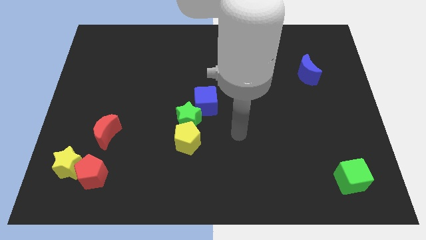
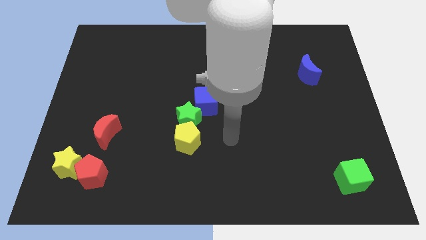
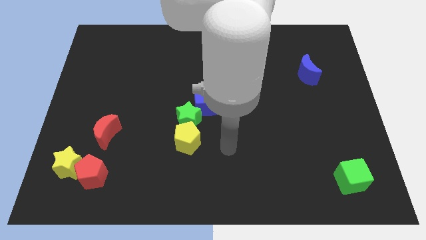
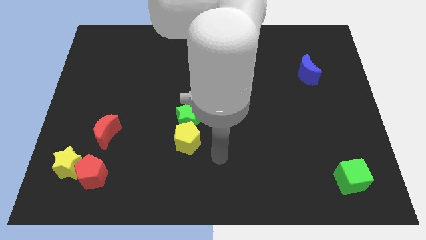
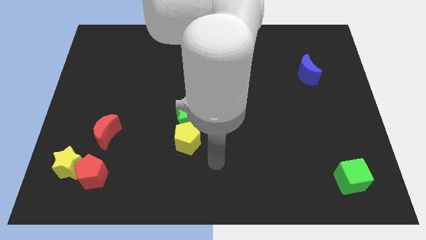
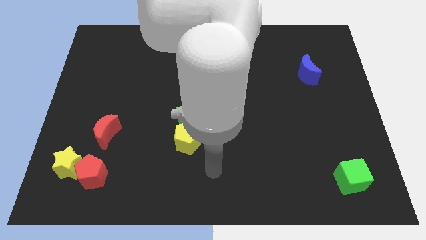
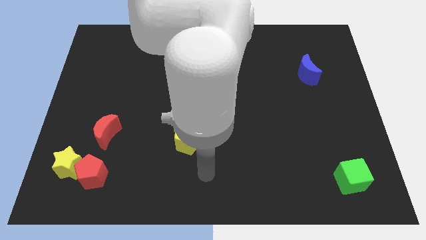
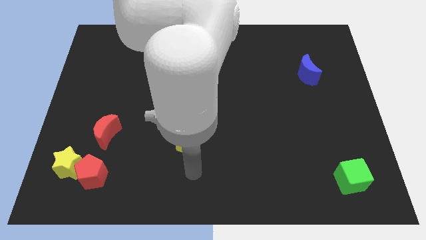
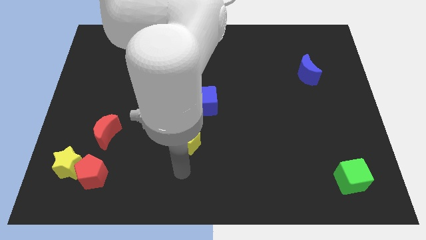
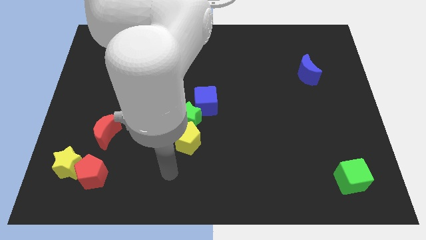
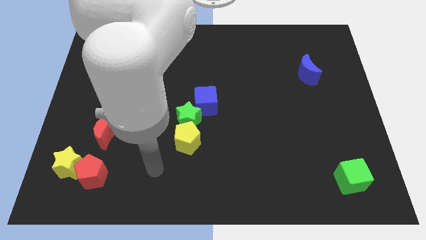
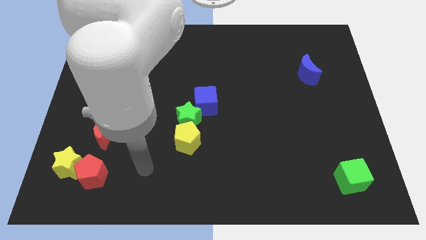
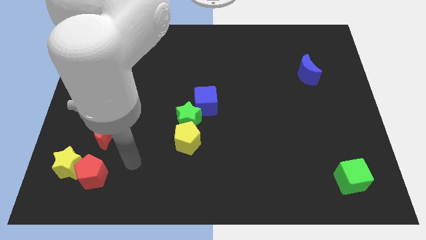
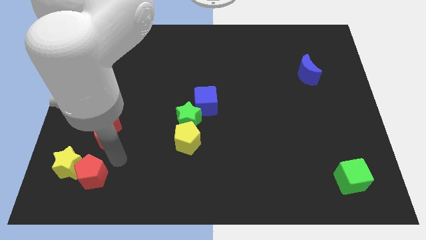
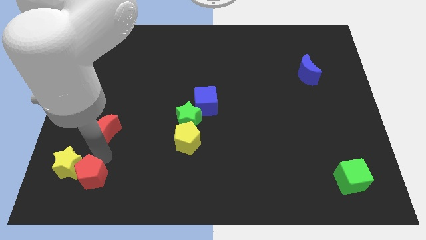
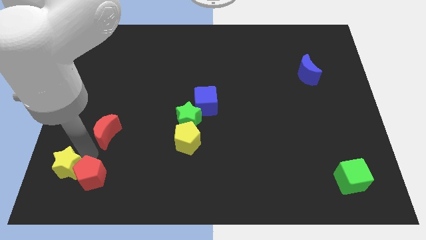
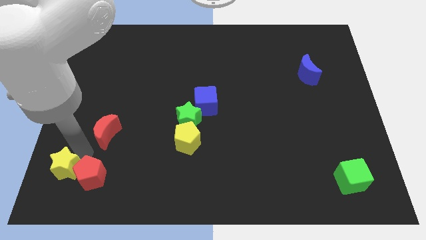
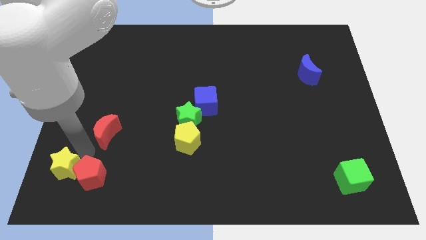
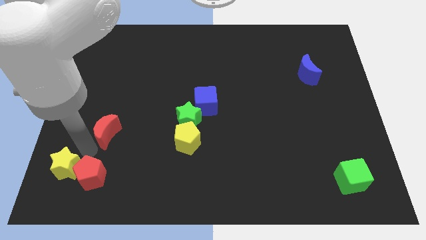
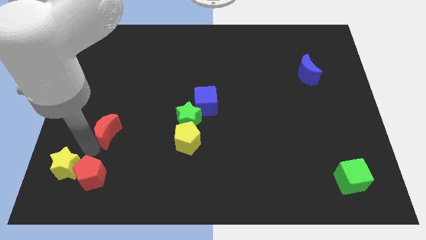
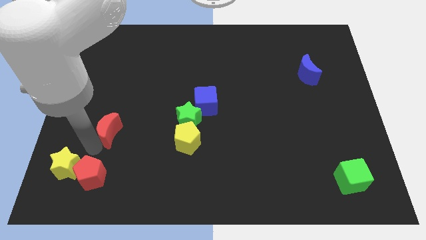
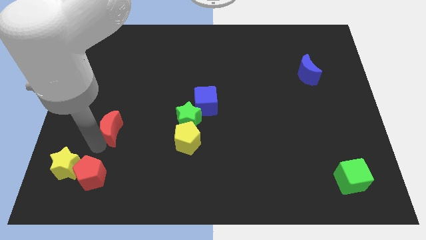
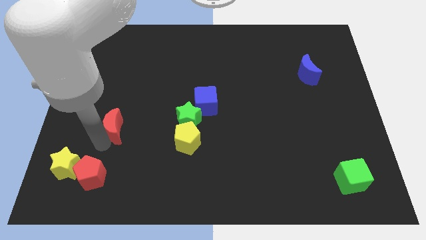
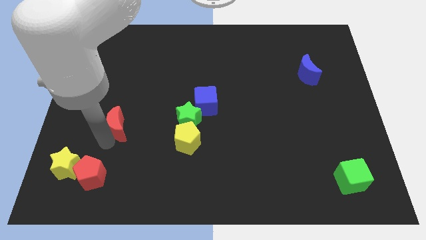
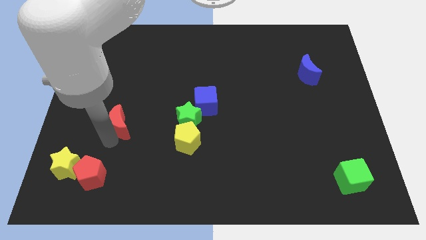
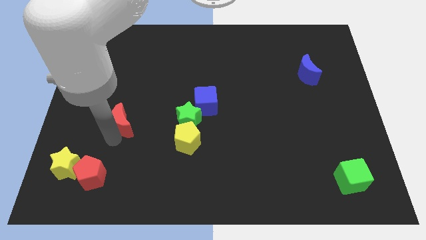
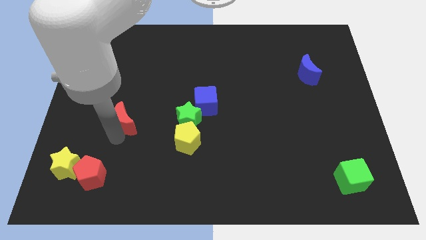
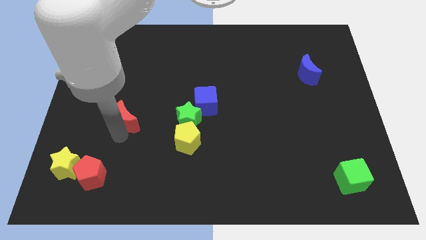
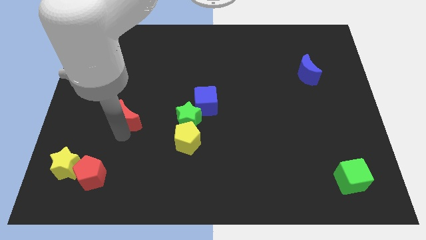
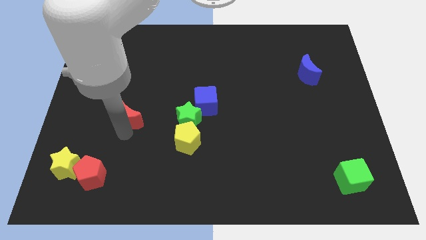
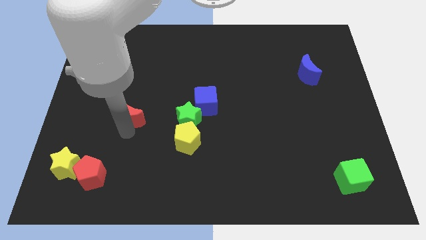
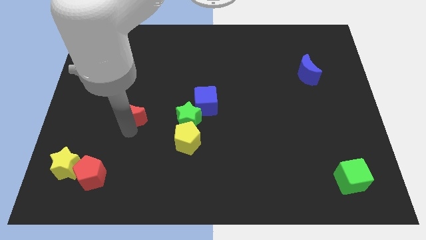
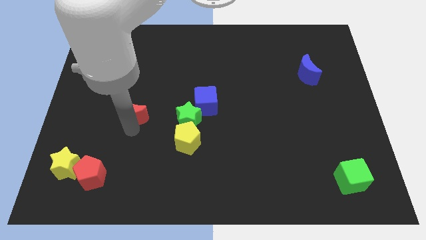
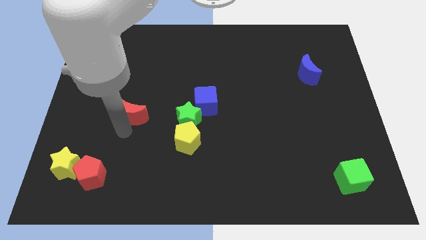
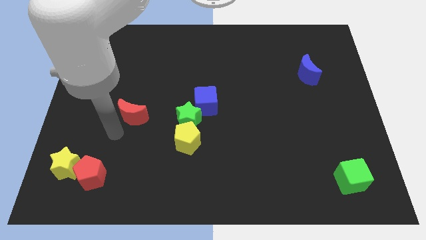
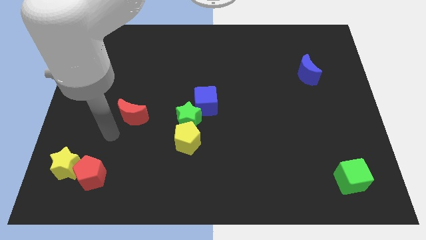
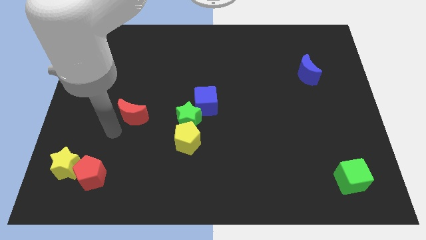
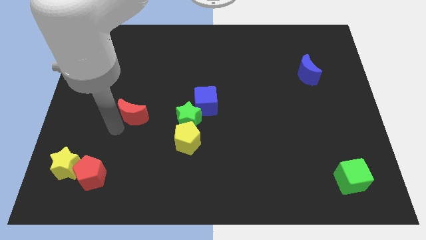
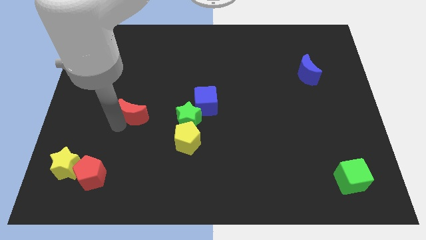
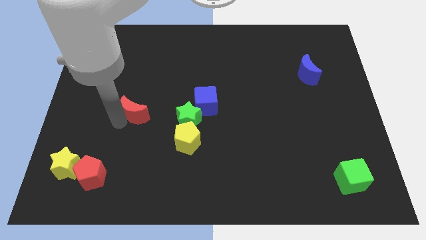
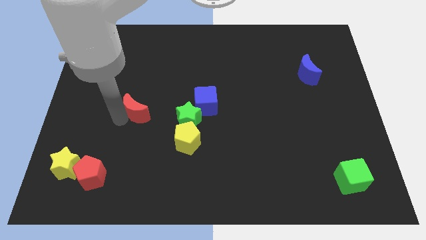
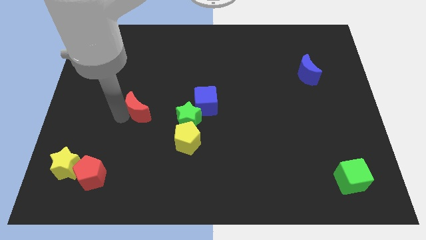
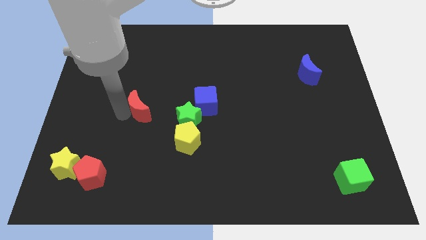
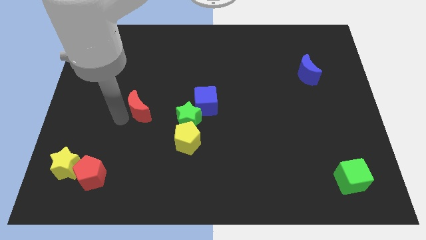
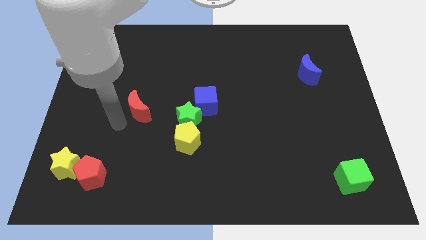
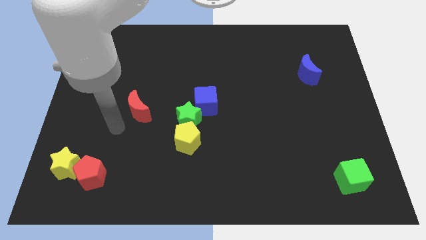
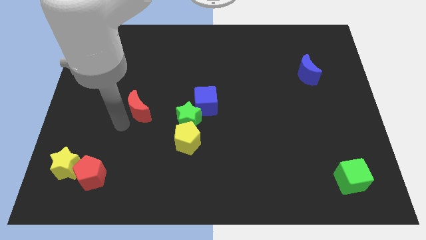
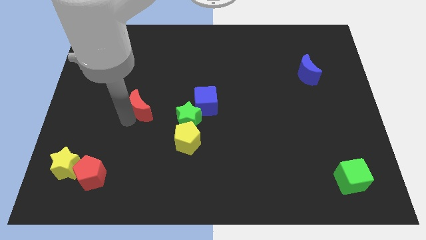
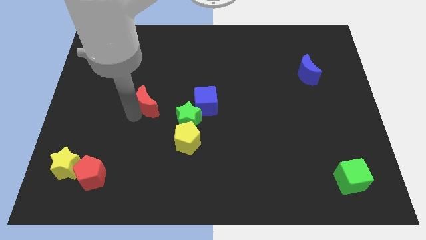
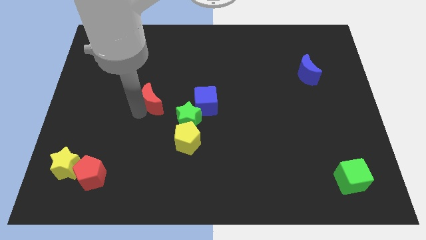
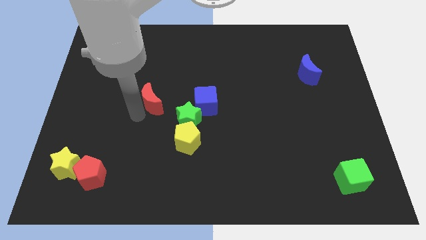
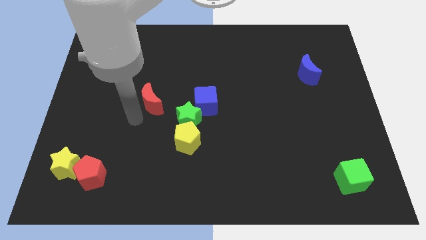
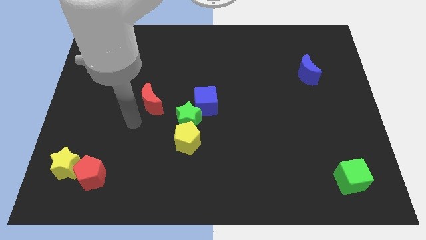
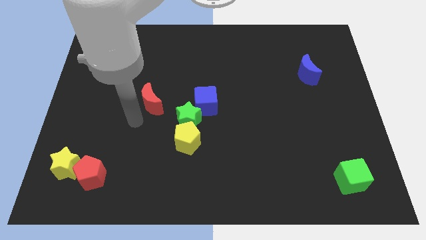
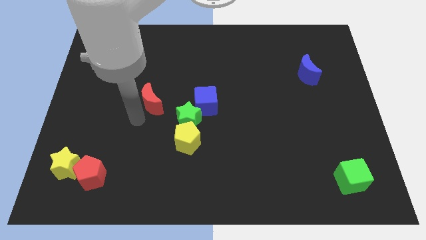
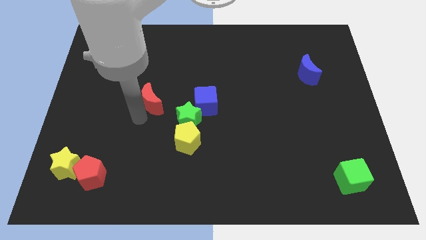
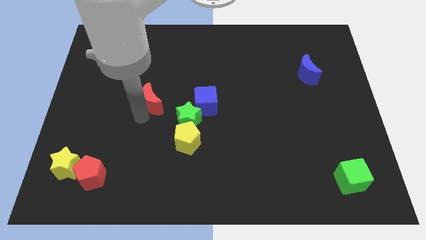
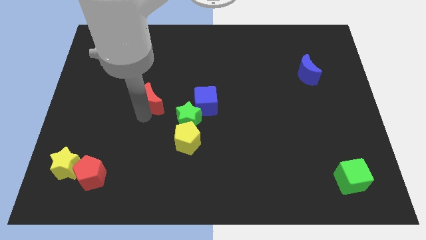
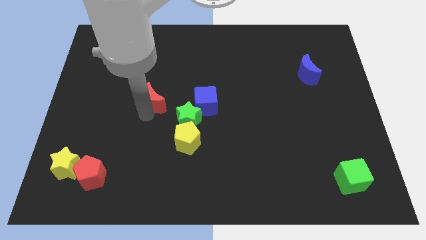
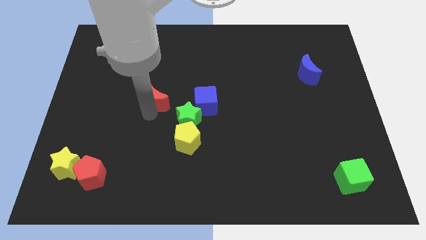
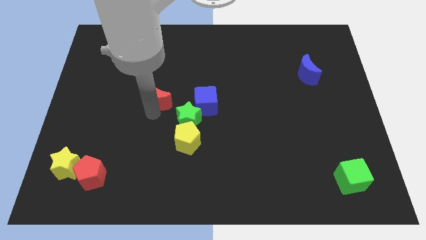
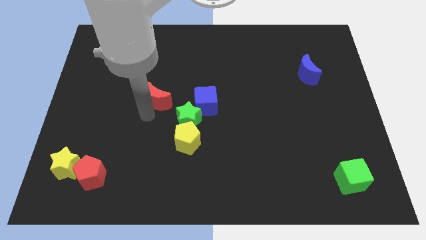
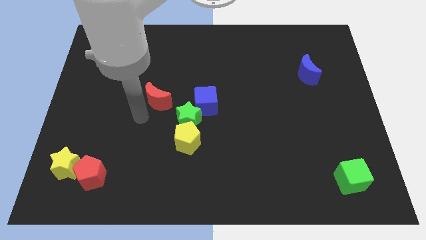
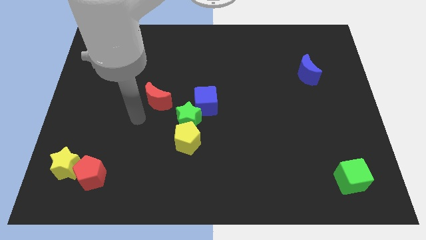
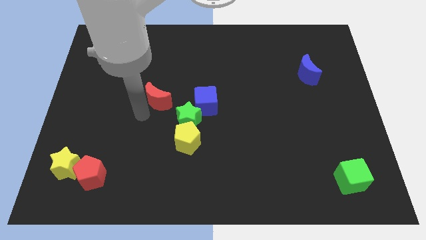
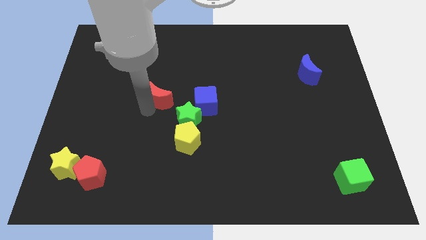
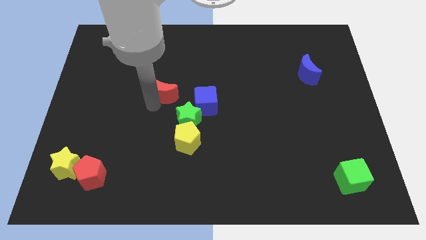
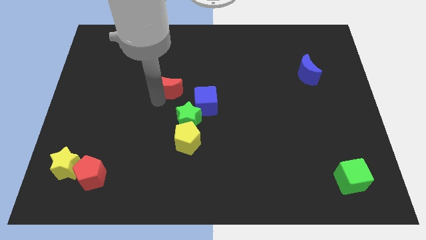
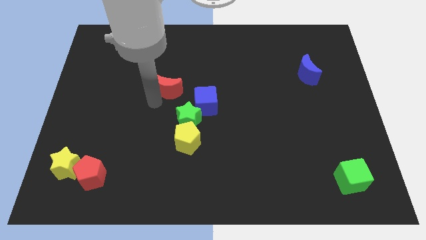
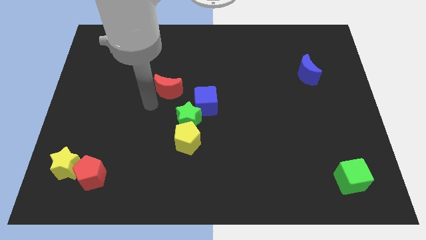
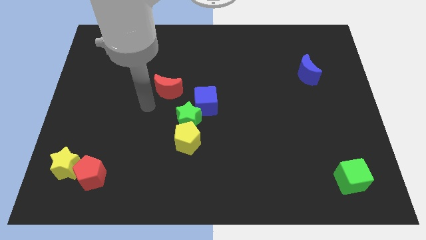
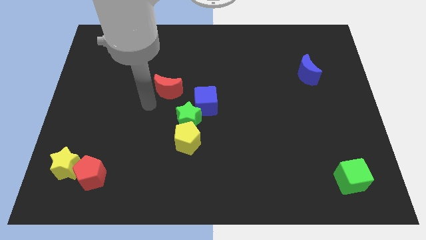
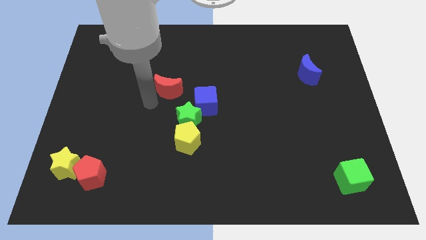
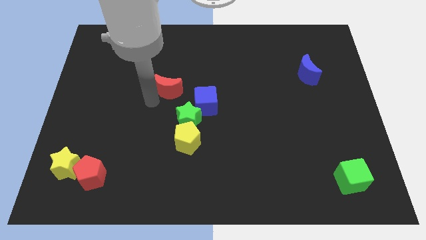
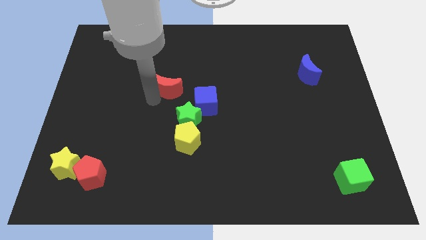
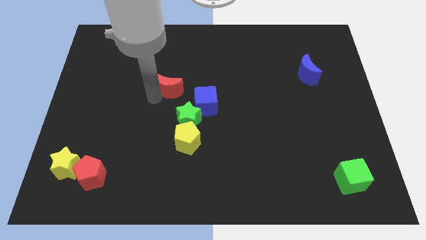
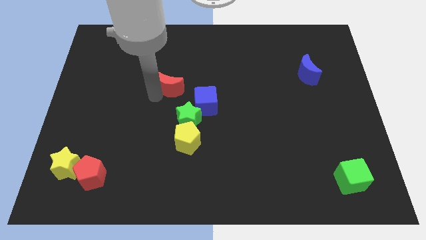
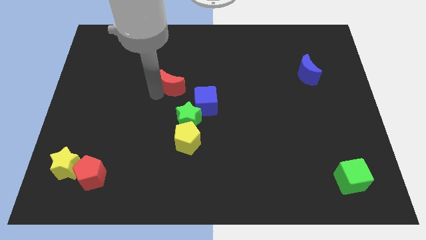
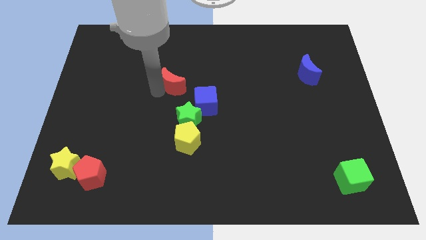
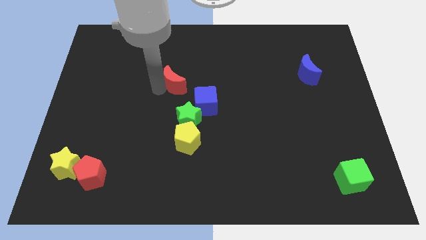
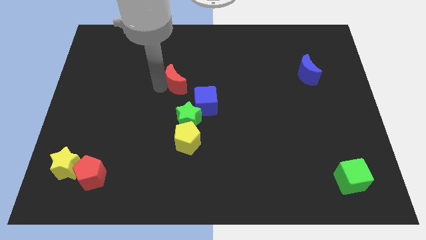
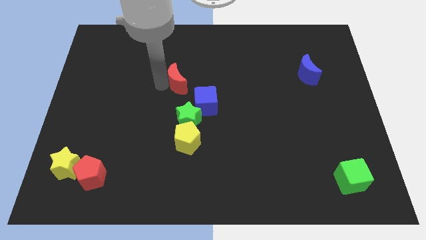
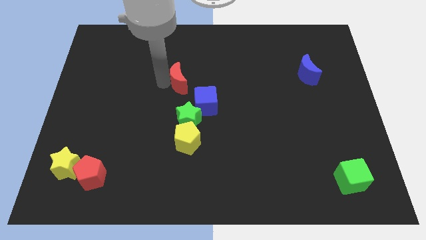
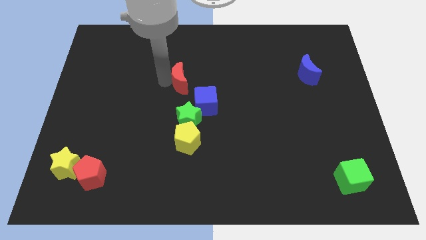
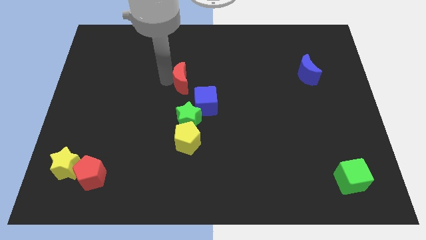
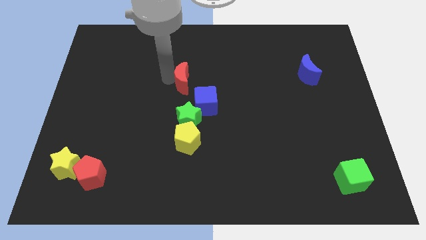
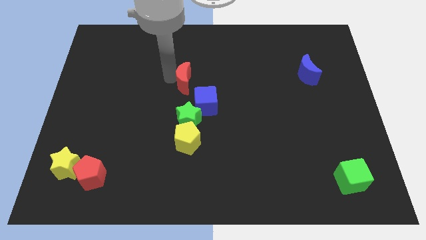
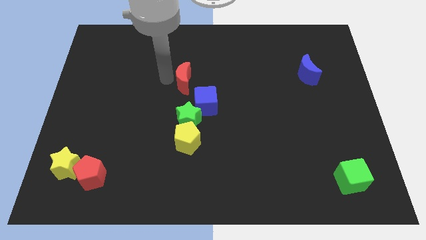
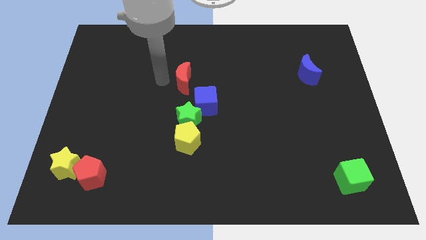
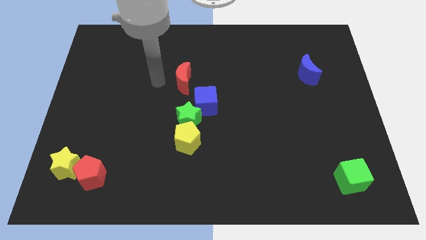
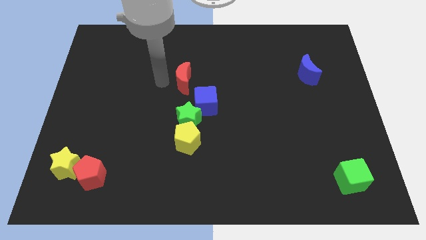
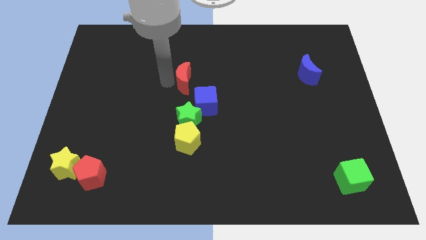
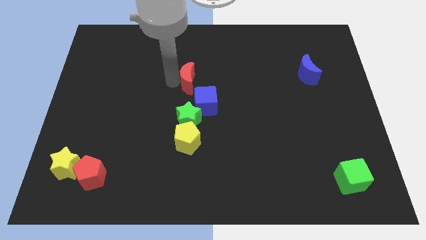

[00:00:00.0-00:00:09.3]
put the red moon to the top side of the blue cube
